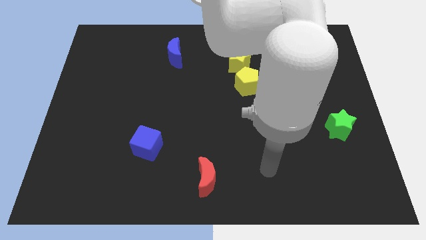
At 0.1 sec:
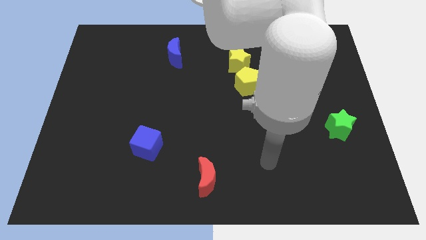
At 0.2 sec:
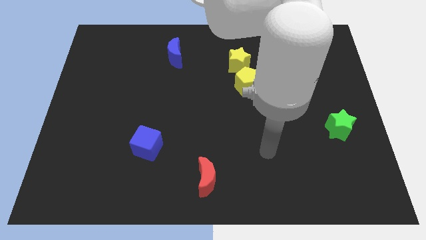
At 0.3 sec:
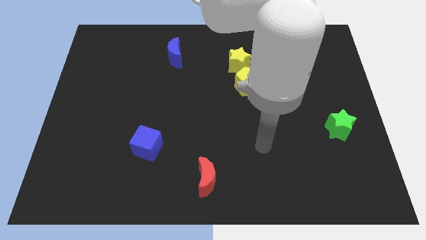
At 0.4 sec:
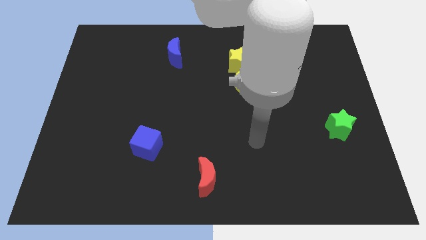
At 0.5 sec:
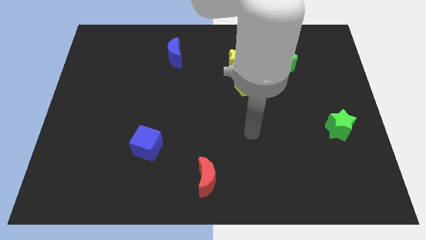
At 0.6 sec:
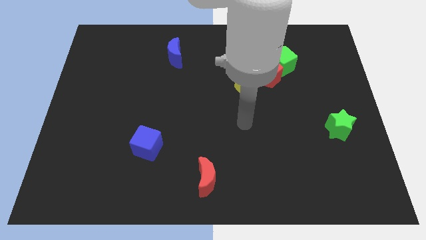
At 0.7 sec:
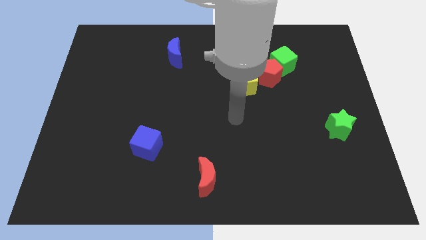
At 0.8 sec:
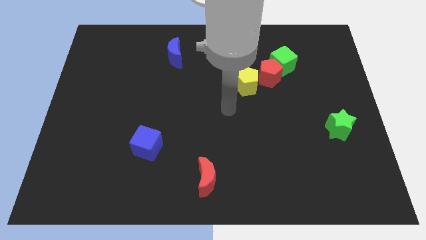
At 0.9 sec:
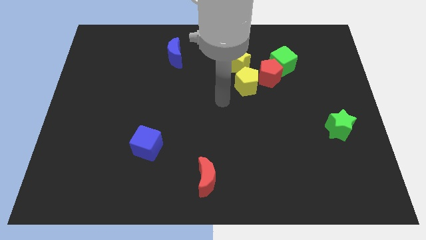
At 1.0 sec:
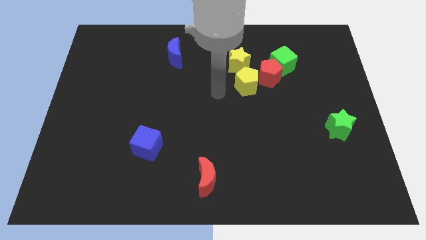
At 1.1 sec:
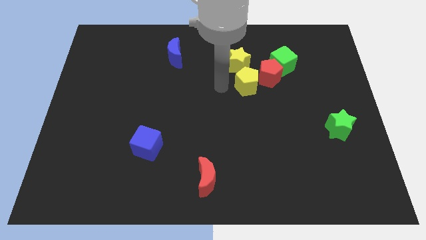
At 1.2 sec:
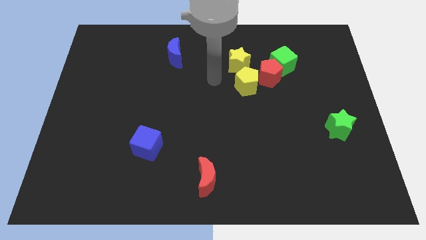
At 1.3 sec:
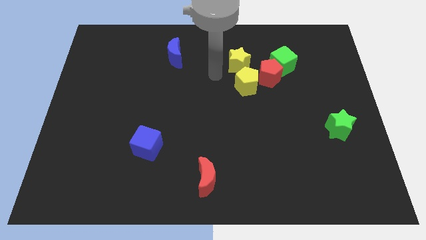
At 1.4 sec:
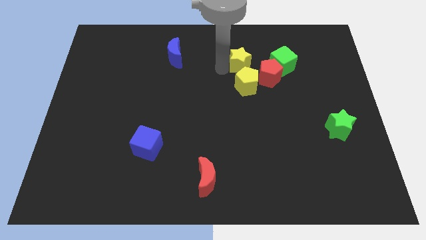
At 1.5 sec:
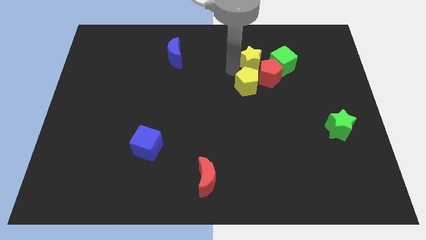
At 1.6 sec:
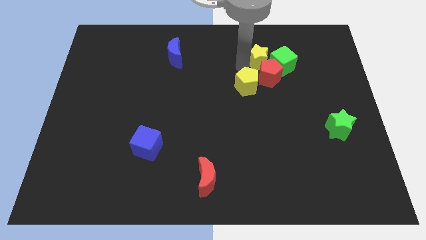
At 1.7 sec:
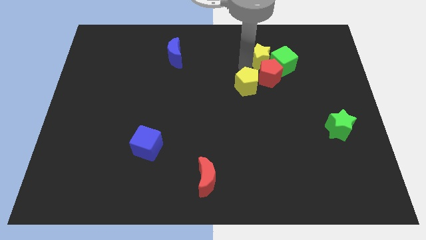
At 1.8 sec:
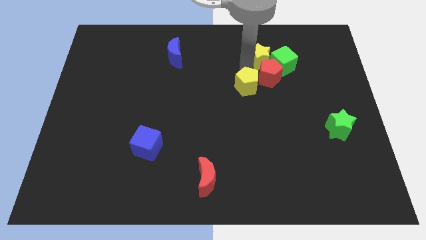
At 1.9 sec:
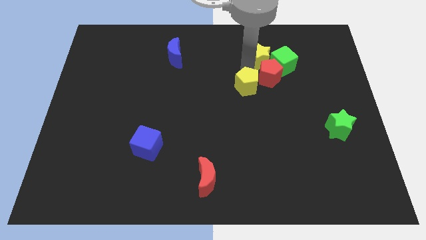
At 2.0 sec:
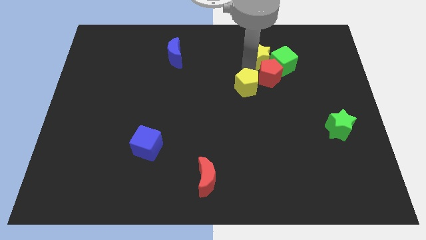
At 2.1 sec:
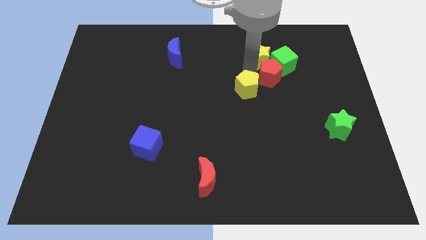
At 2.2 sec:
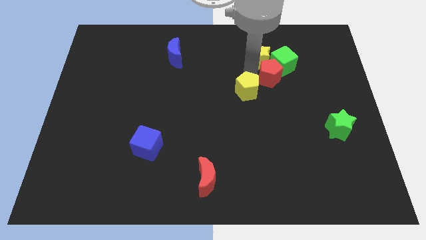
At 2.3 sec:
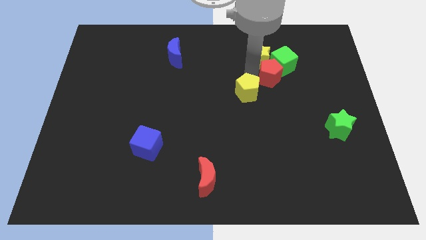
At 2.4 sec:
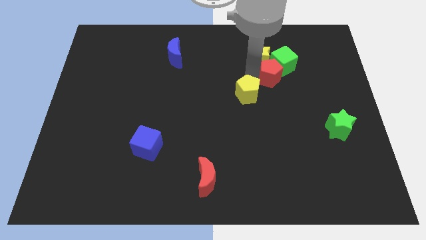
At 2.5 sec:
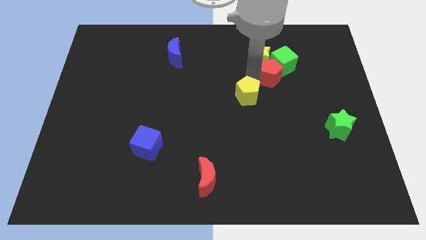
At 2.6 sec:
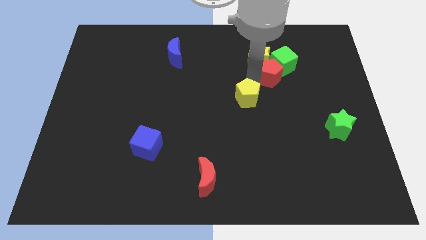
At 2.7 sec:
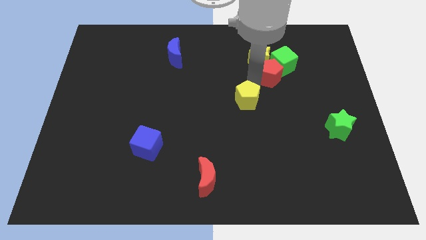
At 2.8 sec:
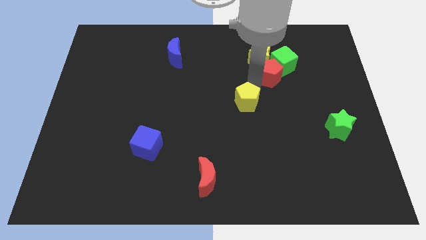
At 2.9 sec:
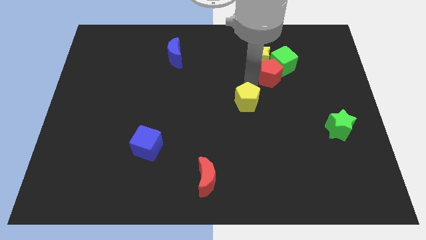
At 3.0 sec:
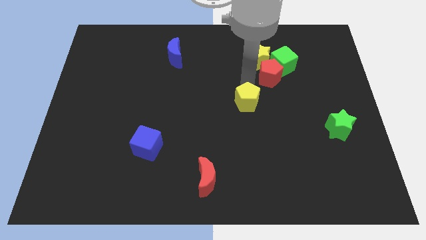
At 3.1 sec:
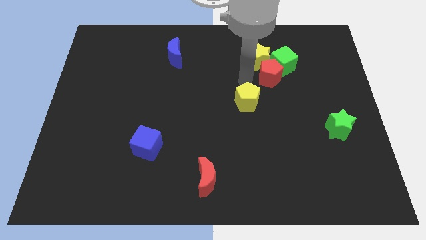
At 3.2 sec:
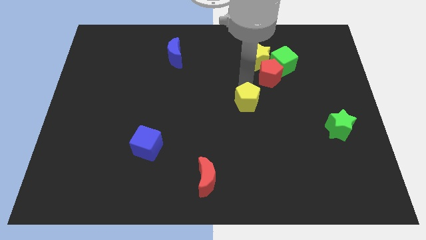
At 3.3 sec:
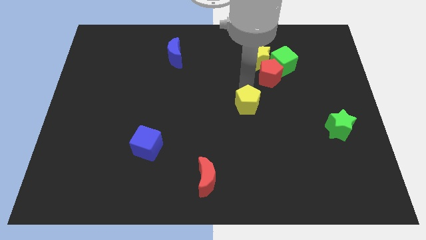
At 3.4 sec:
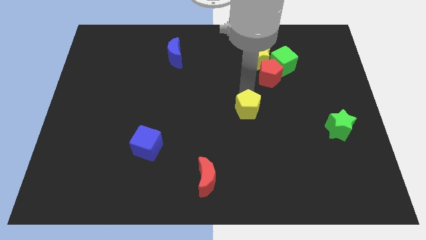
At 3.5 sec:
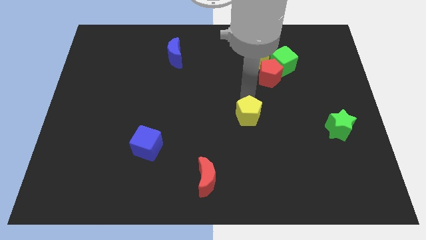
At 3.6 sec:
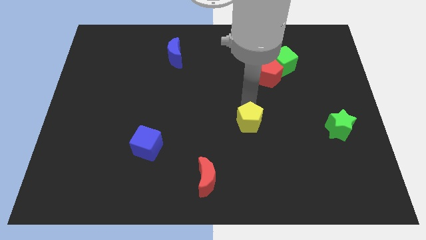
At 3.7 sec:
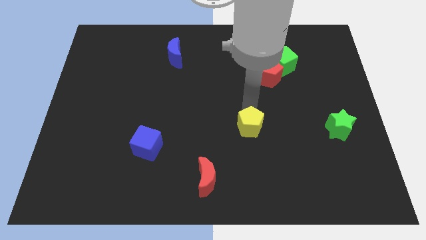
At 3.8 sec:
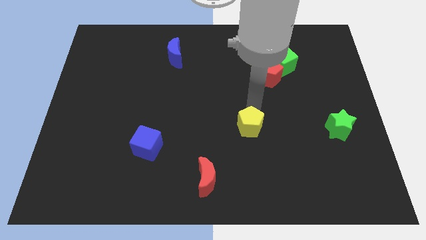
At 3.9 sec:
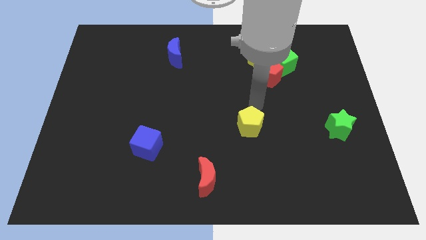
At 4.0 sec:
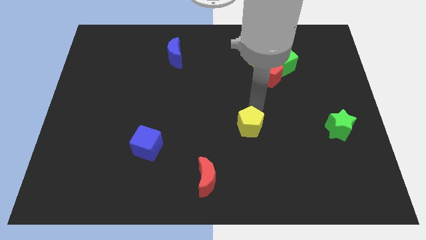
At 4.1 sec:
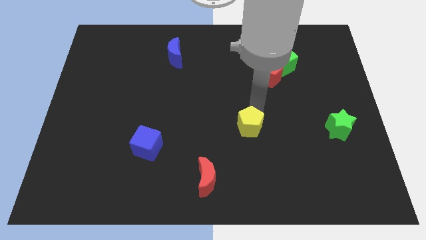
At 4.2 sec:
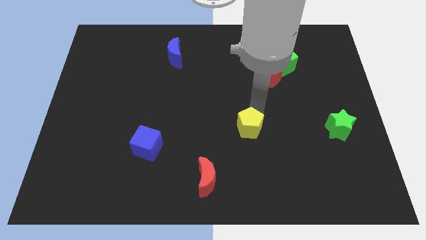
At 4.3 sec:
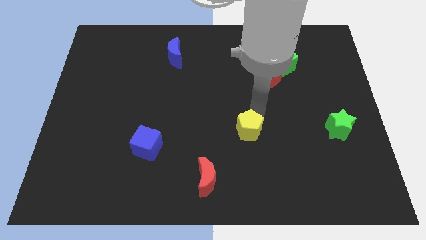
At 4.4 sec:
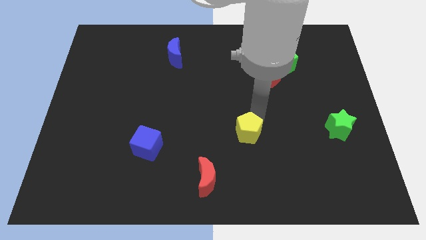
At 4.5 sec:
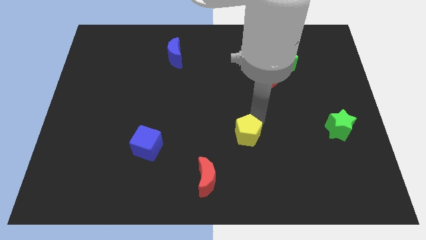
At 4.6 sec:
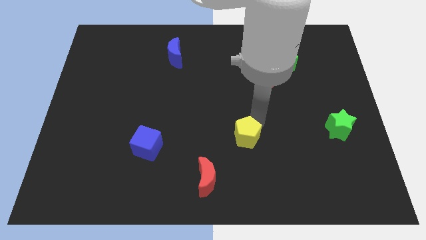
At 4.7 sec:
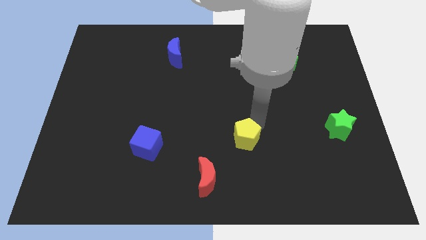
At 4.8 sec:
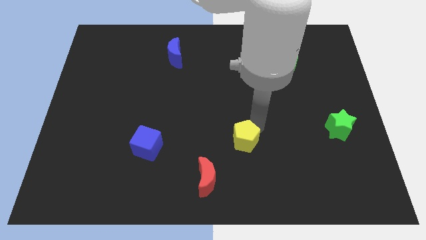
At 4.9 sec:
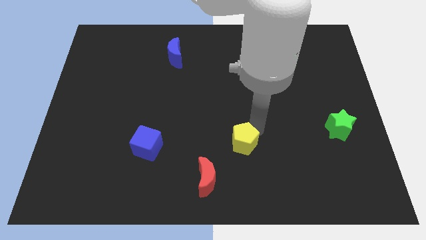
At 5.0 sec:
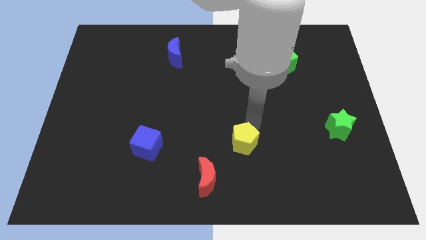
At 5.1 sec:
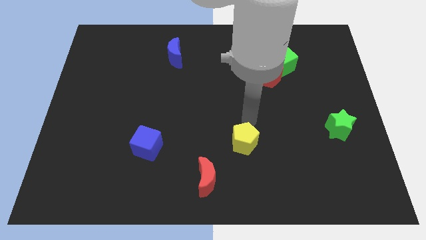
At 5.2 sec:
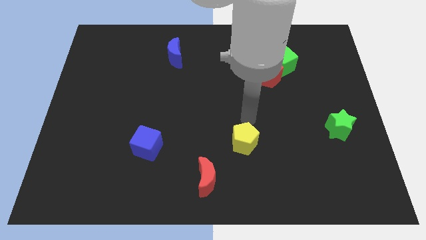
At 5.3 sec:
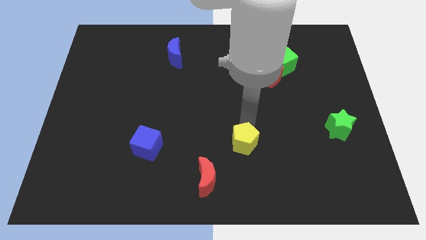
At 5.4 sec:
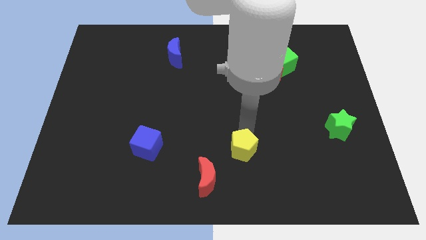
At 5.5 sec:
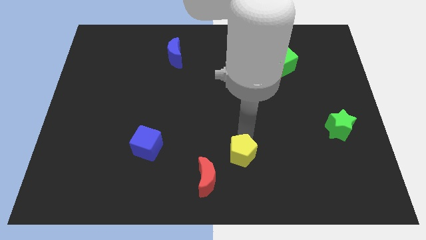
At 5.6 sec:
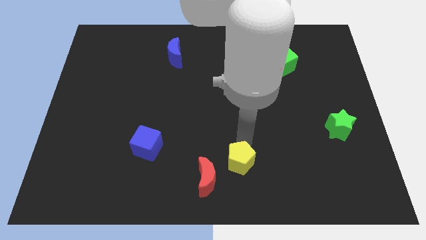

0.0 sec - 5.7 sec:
put the yellow pentagon to the bottom side

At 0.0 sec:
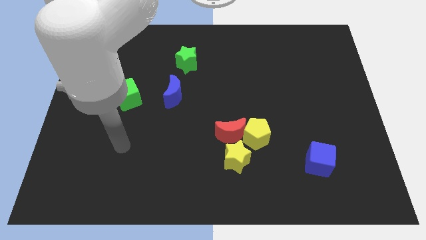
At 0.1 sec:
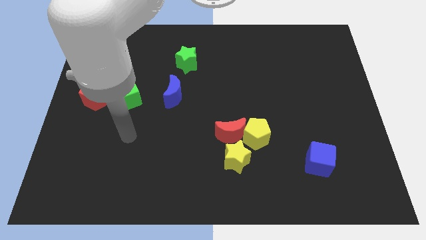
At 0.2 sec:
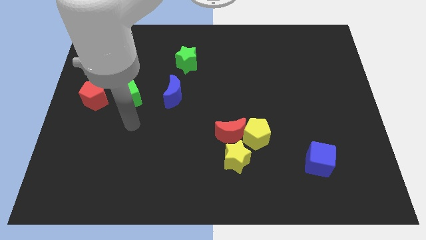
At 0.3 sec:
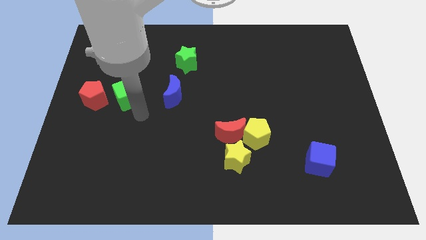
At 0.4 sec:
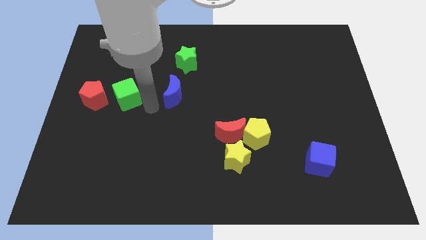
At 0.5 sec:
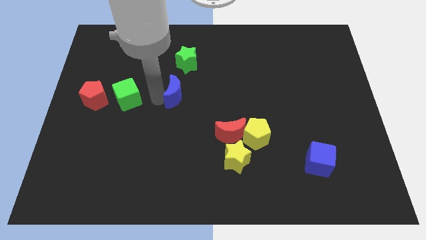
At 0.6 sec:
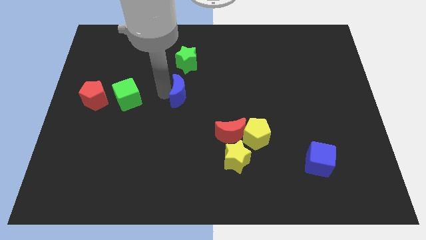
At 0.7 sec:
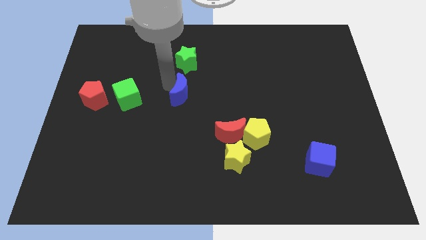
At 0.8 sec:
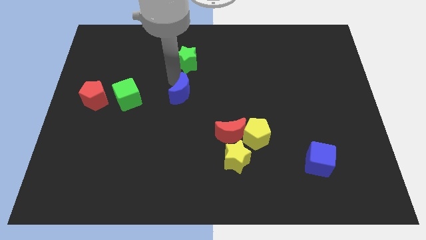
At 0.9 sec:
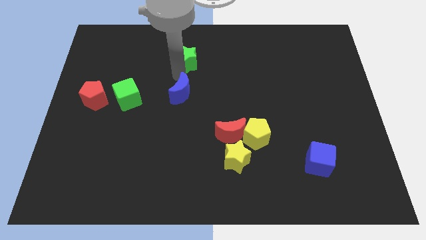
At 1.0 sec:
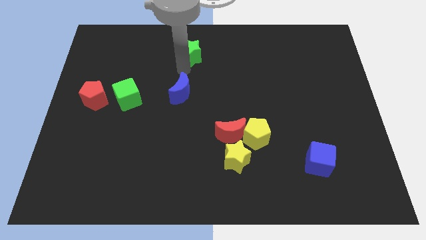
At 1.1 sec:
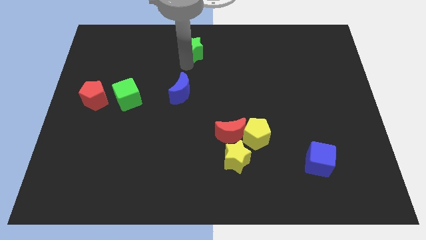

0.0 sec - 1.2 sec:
move the green star to the top
